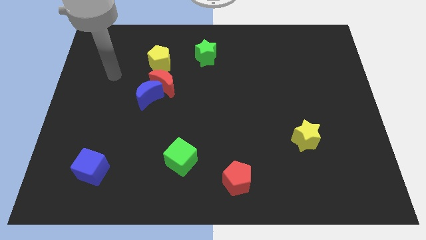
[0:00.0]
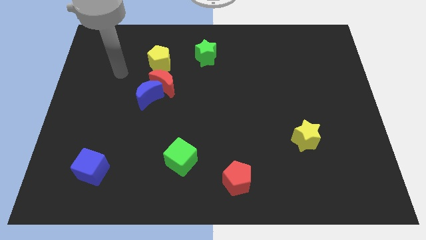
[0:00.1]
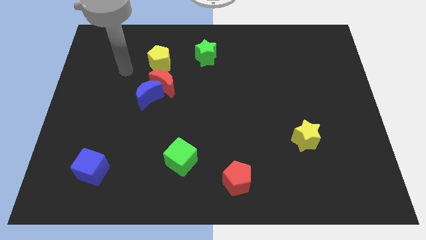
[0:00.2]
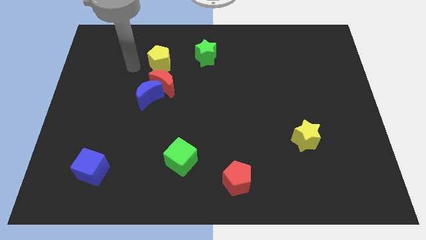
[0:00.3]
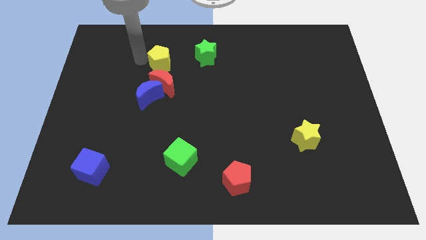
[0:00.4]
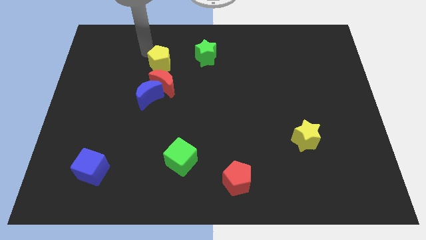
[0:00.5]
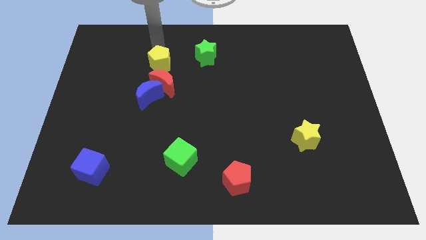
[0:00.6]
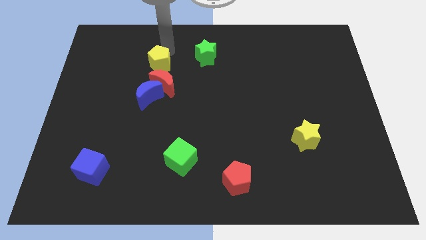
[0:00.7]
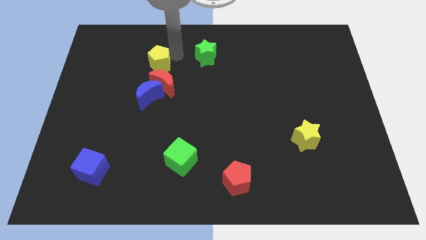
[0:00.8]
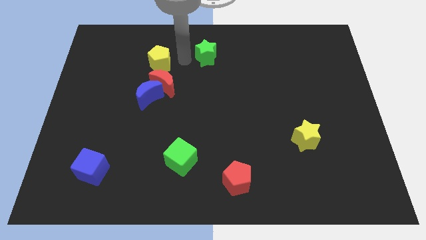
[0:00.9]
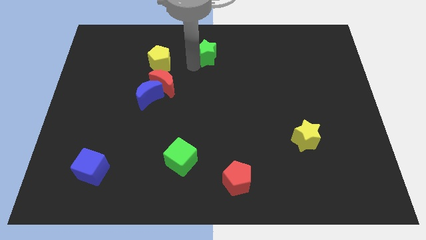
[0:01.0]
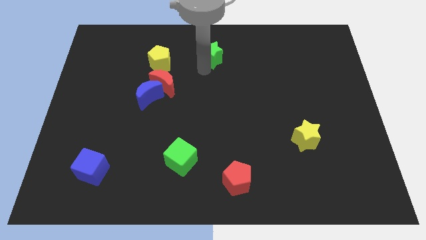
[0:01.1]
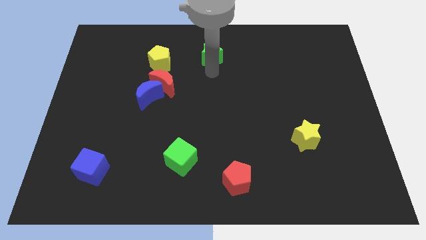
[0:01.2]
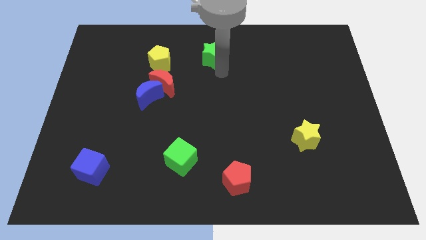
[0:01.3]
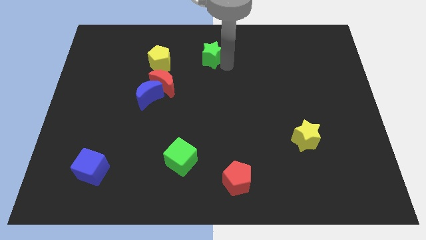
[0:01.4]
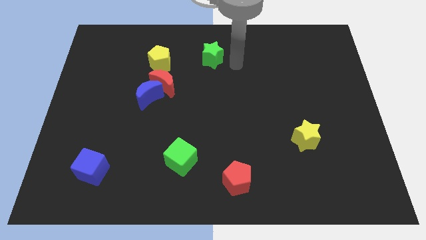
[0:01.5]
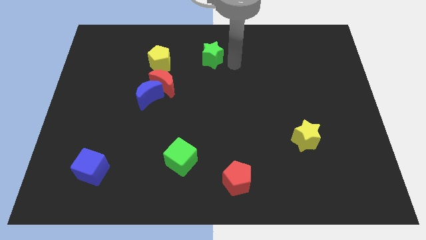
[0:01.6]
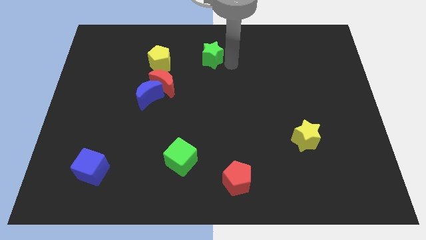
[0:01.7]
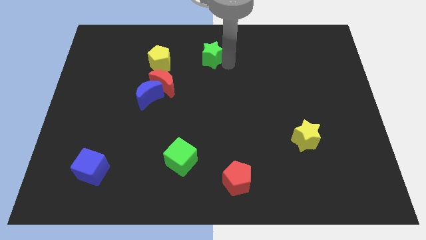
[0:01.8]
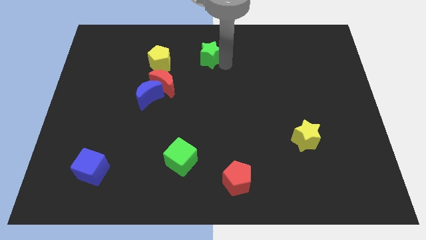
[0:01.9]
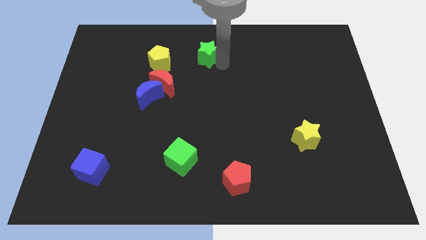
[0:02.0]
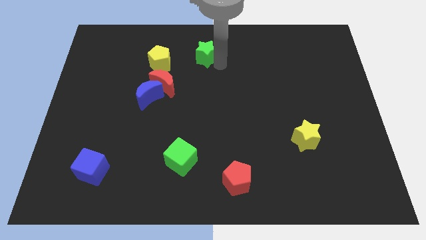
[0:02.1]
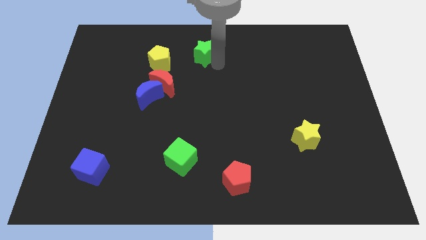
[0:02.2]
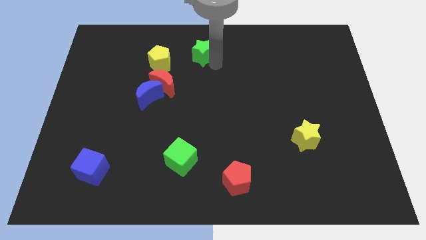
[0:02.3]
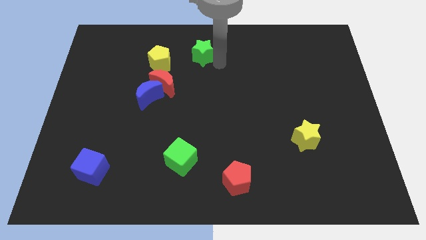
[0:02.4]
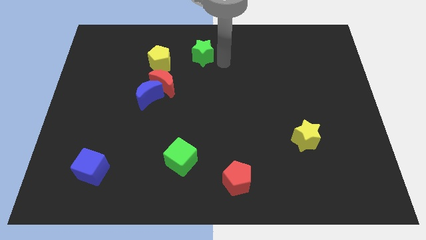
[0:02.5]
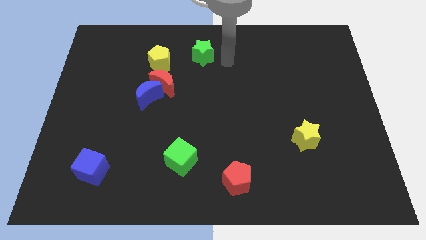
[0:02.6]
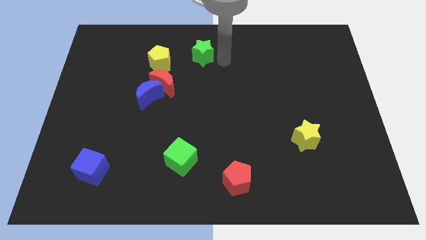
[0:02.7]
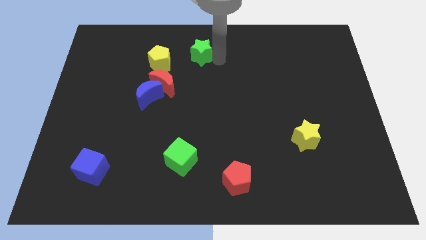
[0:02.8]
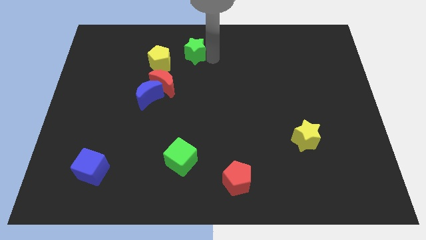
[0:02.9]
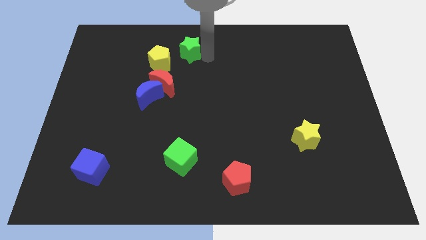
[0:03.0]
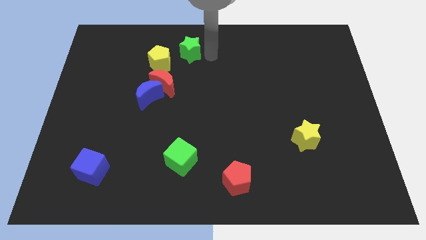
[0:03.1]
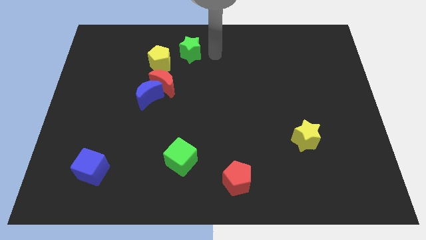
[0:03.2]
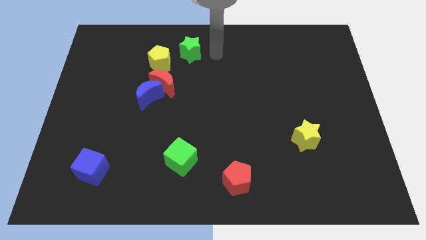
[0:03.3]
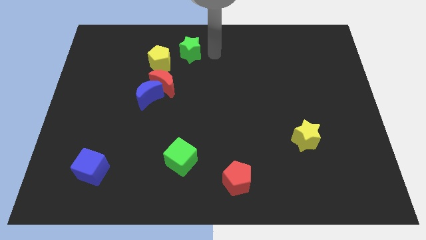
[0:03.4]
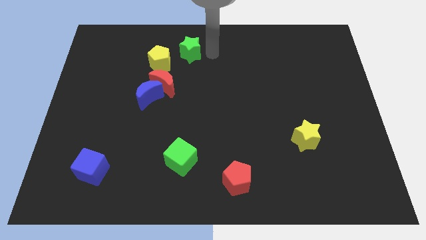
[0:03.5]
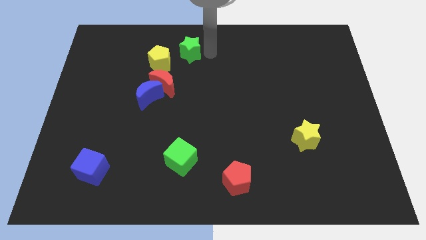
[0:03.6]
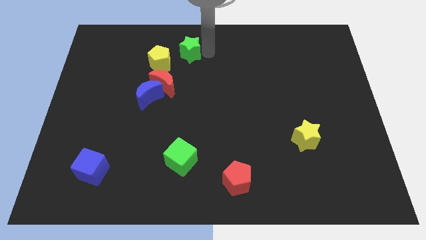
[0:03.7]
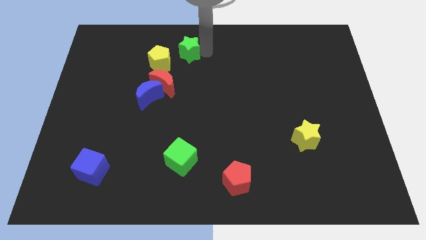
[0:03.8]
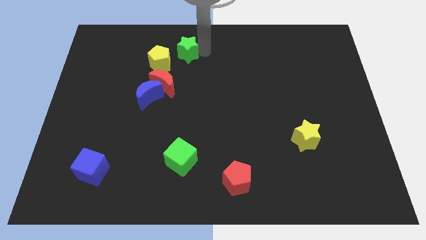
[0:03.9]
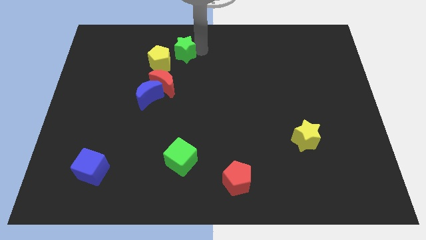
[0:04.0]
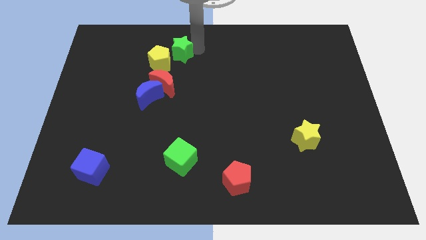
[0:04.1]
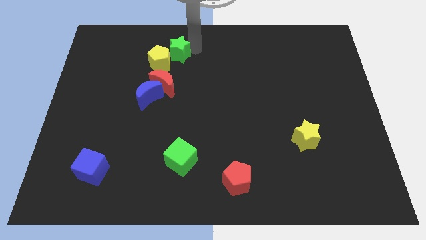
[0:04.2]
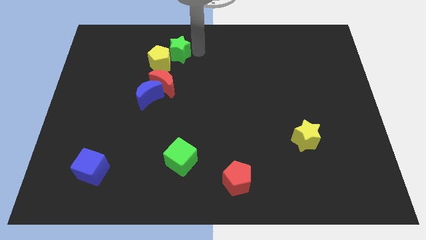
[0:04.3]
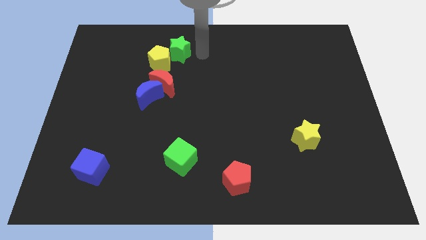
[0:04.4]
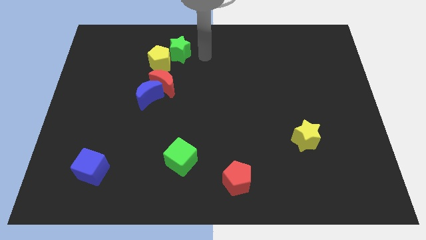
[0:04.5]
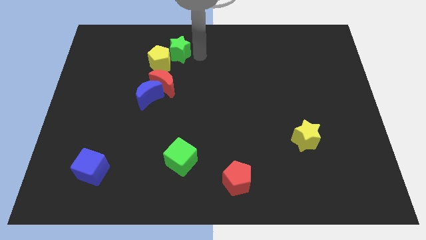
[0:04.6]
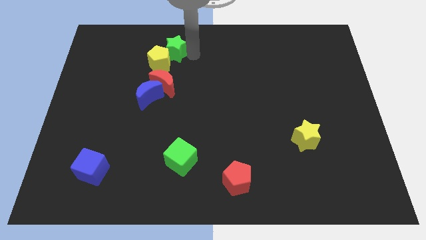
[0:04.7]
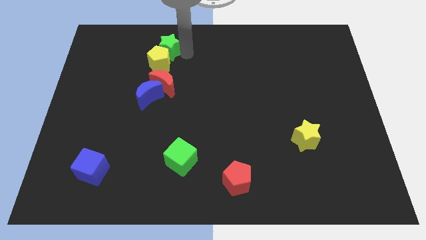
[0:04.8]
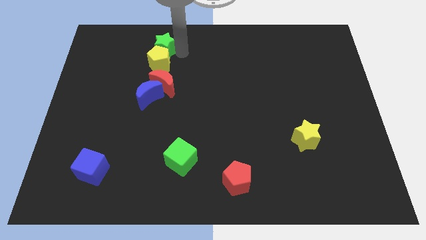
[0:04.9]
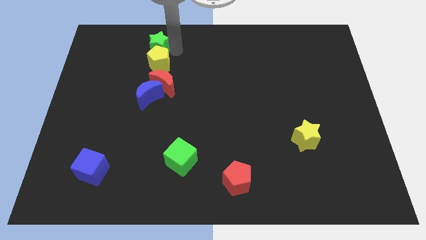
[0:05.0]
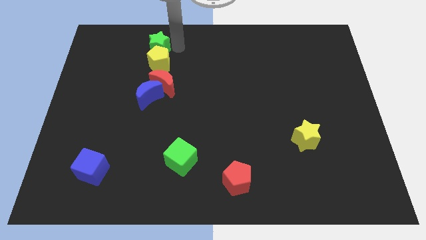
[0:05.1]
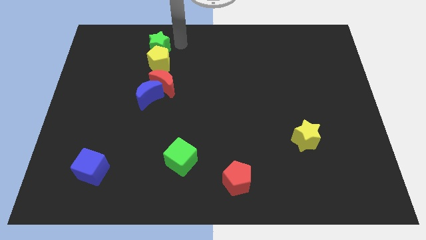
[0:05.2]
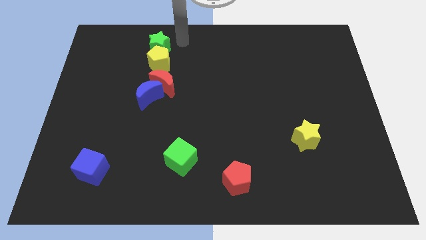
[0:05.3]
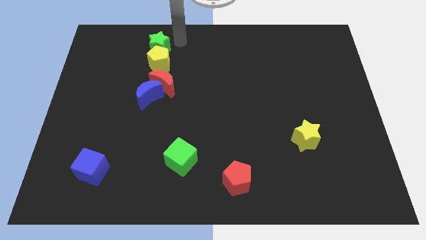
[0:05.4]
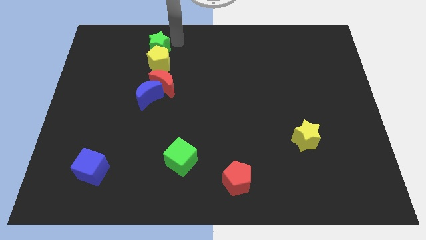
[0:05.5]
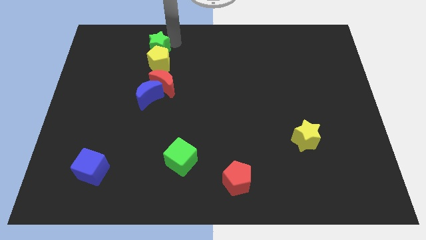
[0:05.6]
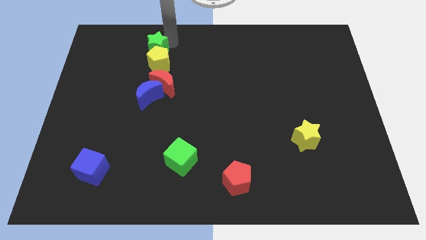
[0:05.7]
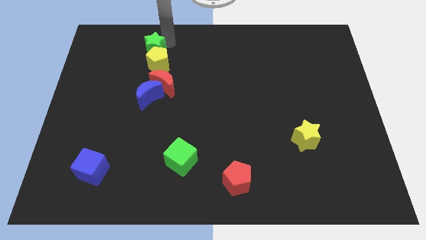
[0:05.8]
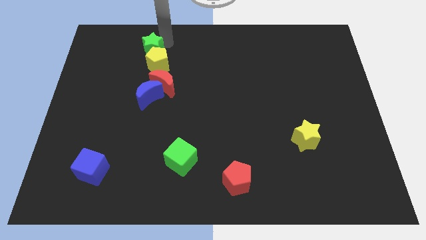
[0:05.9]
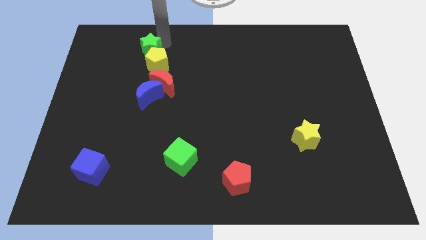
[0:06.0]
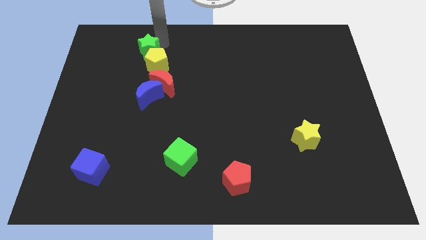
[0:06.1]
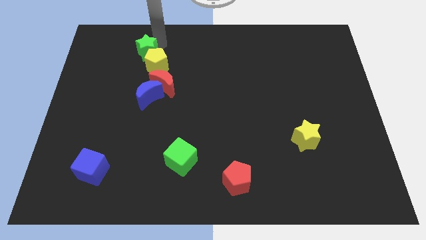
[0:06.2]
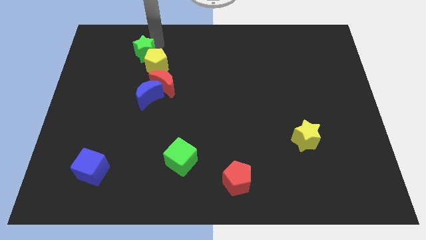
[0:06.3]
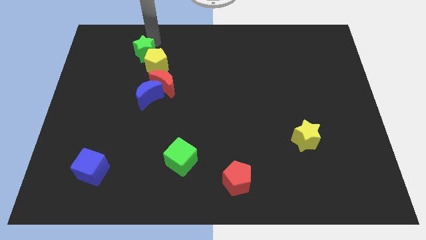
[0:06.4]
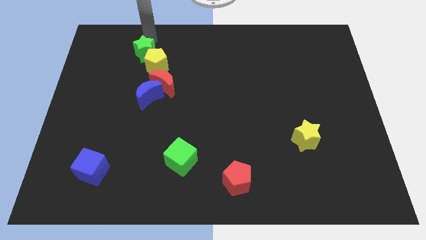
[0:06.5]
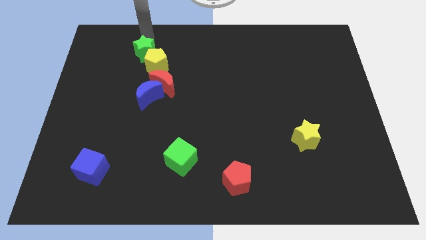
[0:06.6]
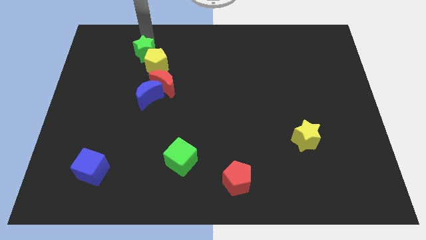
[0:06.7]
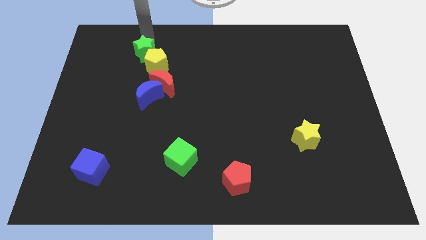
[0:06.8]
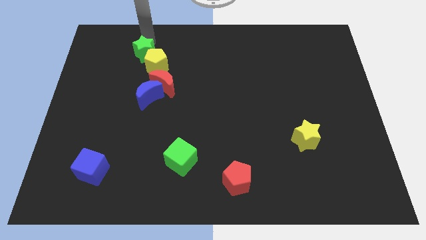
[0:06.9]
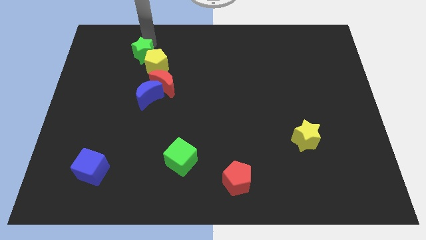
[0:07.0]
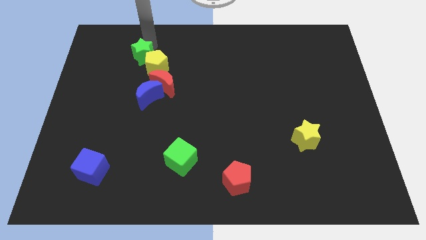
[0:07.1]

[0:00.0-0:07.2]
move the green star to the top left of the red moon

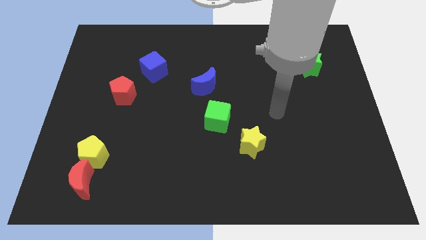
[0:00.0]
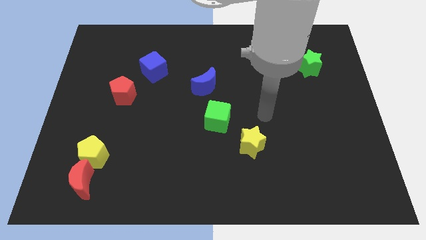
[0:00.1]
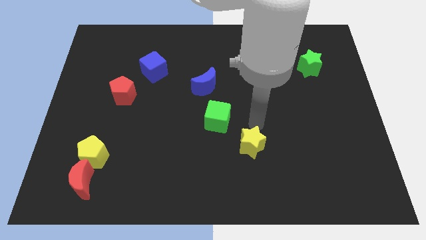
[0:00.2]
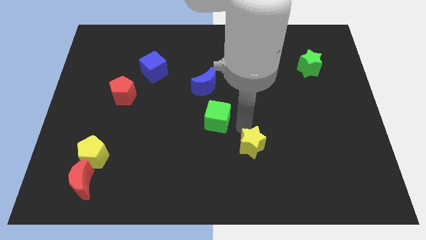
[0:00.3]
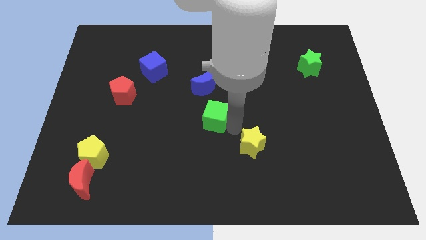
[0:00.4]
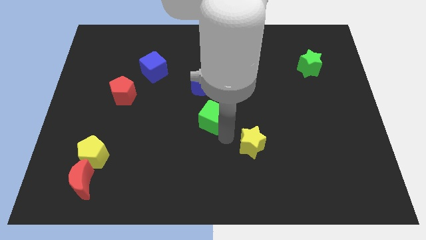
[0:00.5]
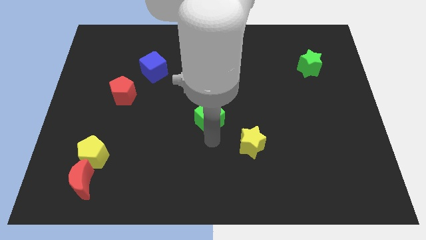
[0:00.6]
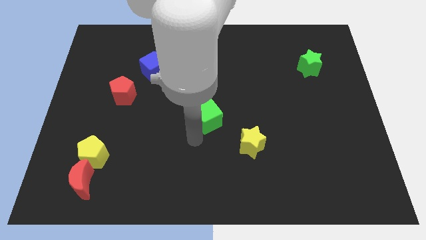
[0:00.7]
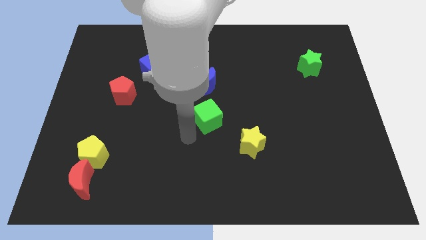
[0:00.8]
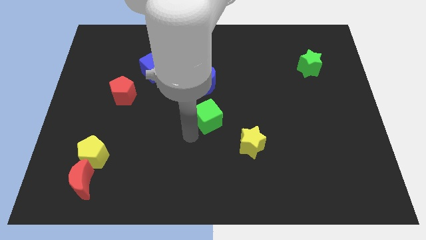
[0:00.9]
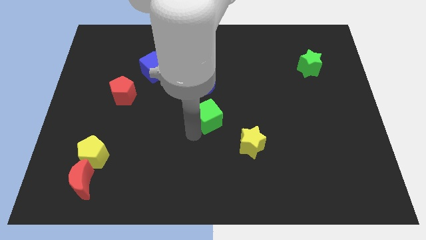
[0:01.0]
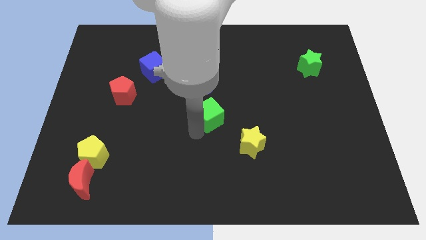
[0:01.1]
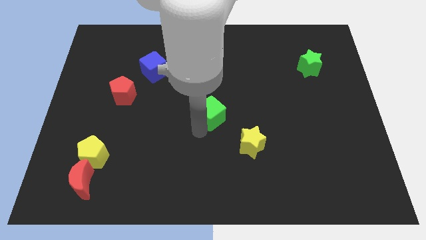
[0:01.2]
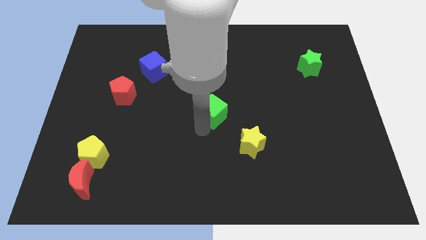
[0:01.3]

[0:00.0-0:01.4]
push the green cube diagonally down and to the right of the blue moon
